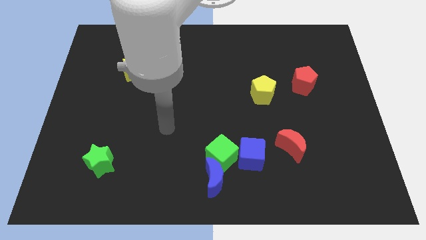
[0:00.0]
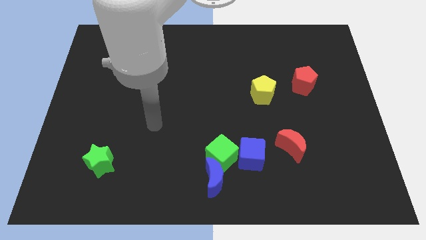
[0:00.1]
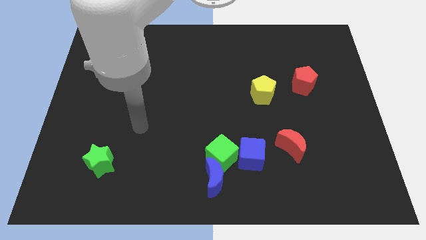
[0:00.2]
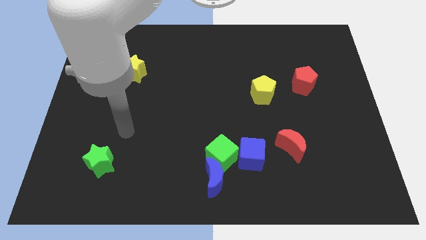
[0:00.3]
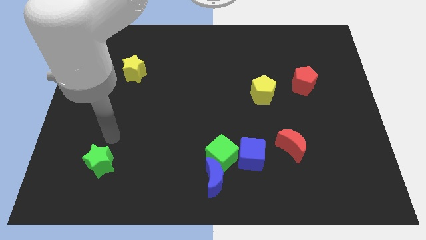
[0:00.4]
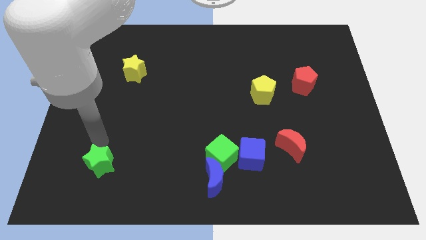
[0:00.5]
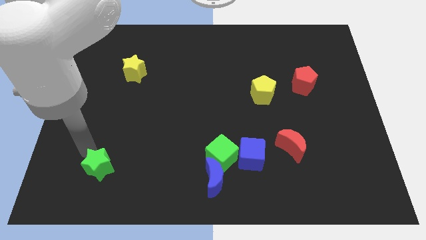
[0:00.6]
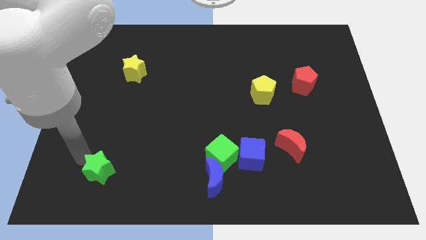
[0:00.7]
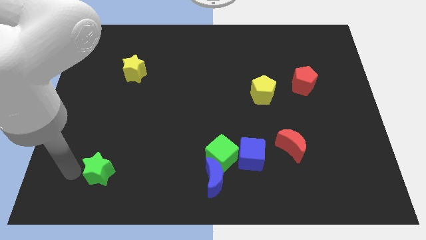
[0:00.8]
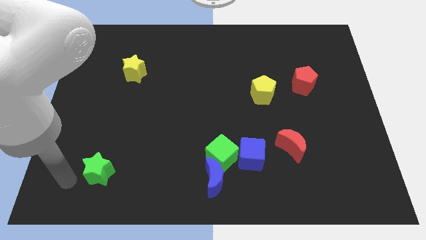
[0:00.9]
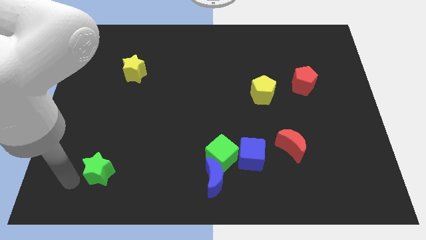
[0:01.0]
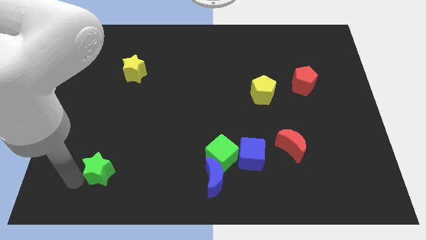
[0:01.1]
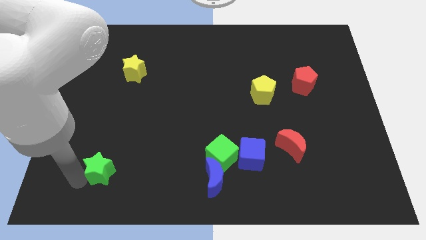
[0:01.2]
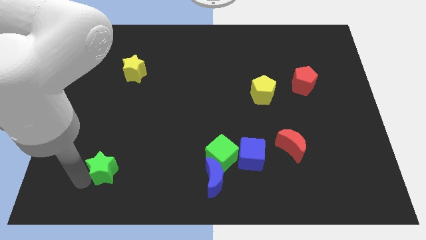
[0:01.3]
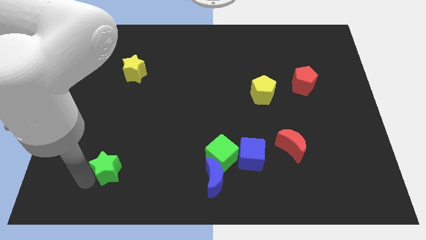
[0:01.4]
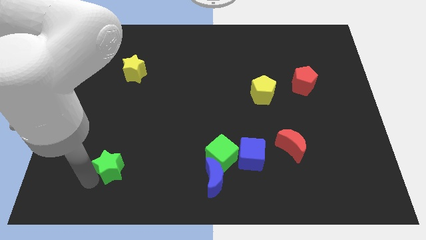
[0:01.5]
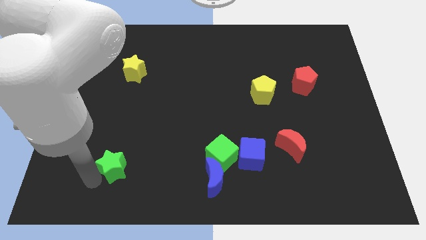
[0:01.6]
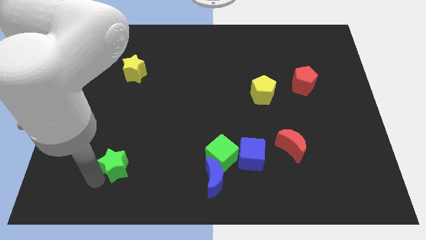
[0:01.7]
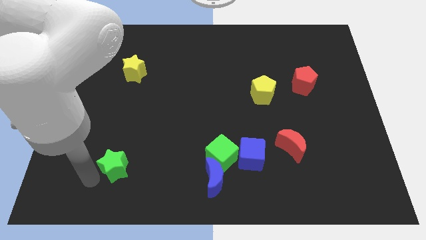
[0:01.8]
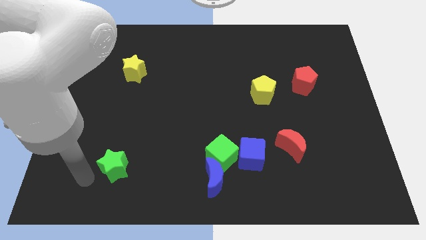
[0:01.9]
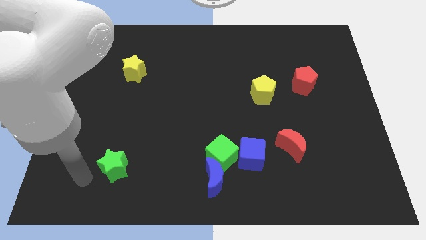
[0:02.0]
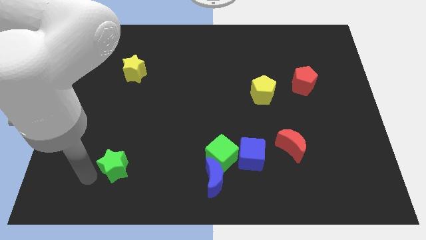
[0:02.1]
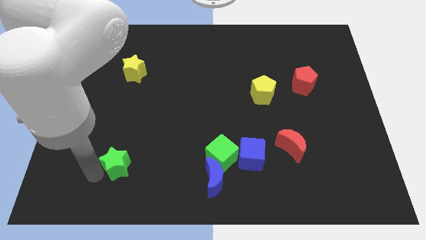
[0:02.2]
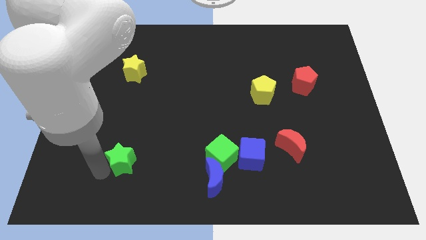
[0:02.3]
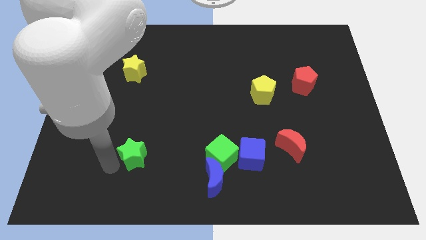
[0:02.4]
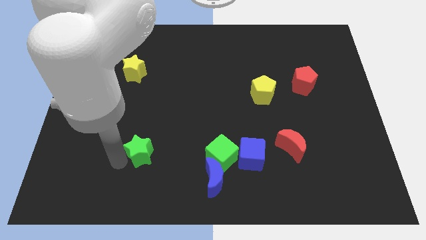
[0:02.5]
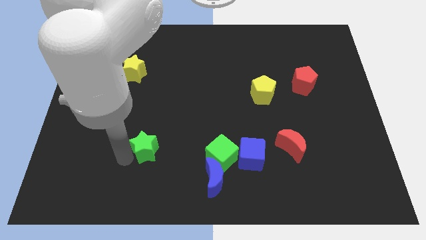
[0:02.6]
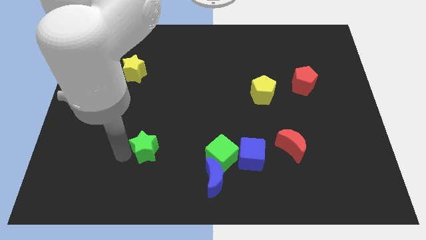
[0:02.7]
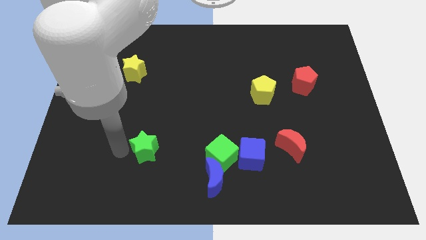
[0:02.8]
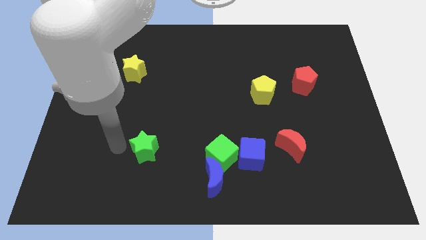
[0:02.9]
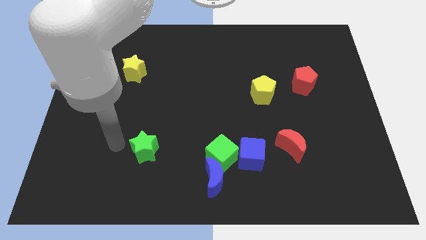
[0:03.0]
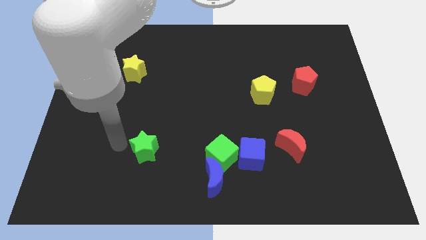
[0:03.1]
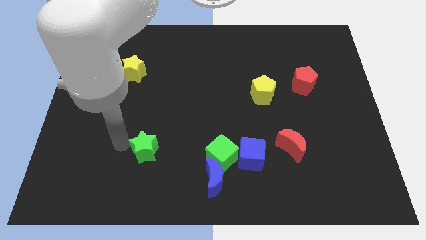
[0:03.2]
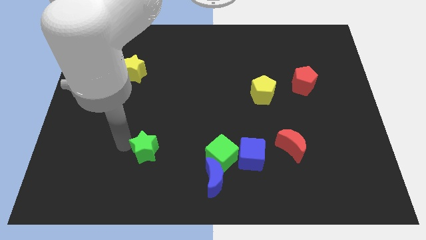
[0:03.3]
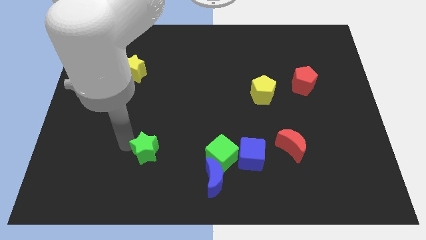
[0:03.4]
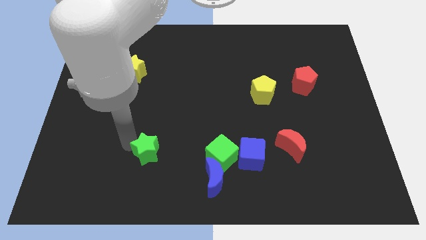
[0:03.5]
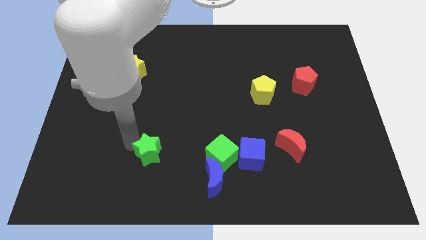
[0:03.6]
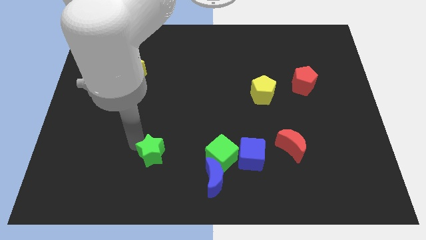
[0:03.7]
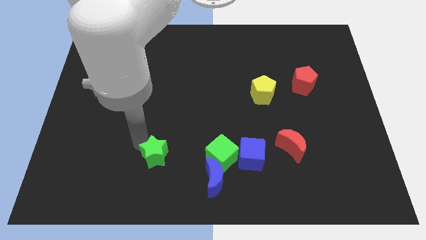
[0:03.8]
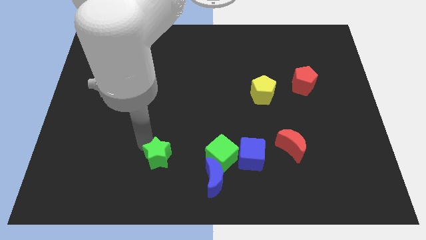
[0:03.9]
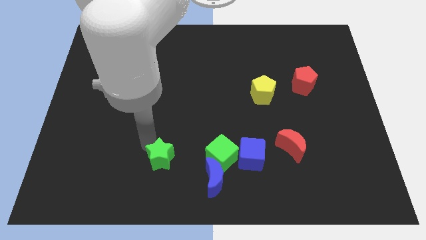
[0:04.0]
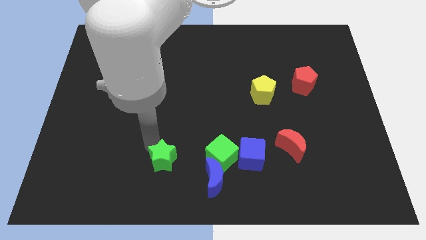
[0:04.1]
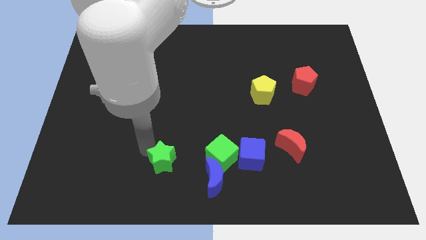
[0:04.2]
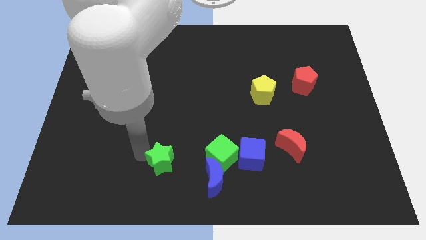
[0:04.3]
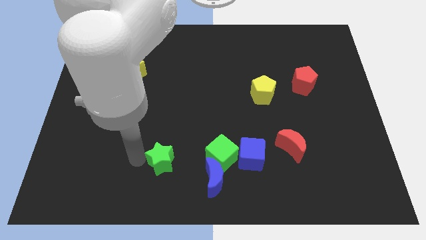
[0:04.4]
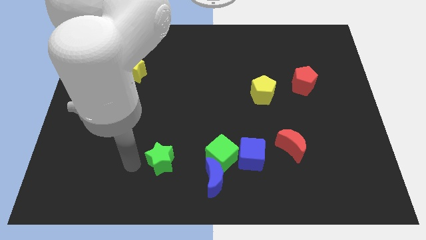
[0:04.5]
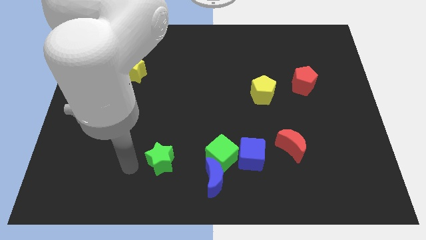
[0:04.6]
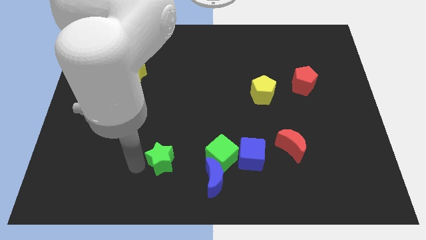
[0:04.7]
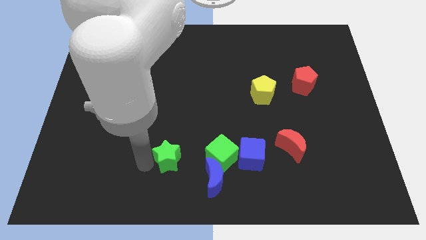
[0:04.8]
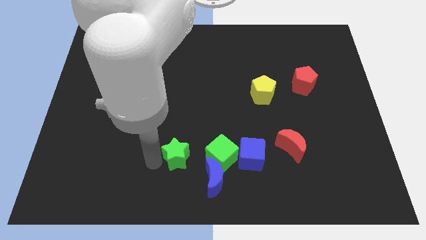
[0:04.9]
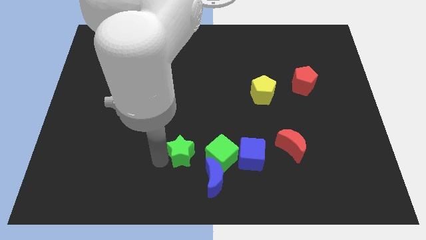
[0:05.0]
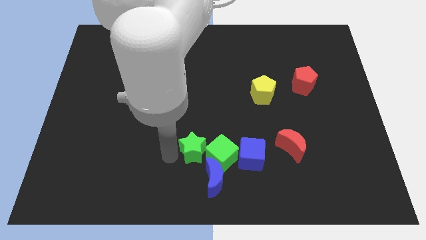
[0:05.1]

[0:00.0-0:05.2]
move the green star to the green cube

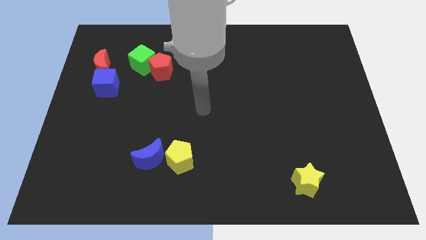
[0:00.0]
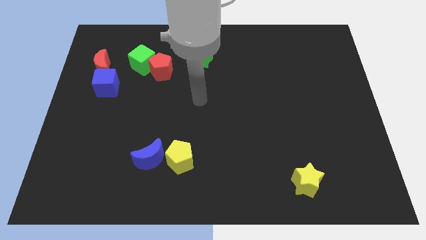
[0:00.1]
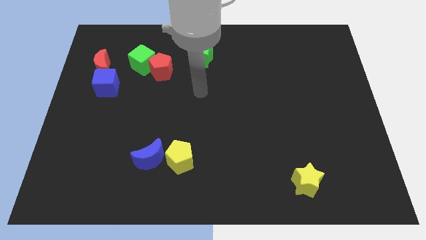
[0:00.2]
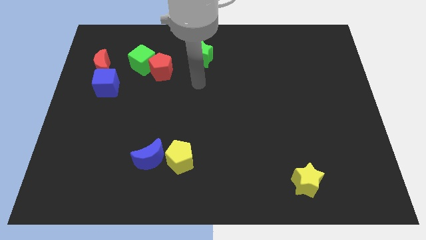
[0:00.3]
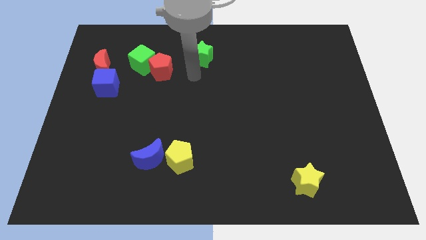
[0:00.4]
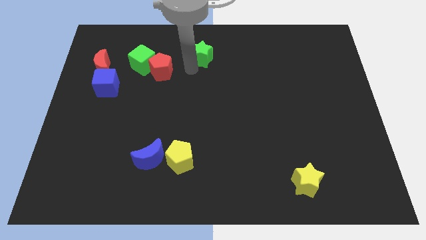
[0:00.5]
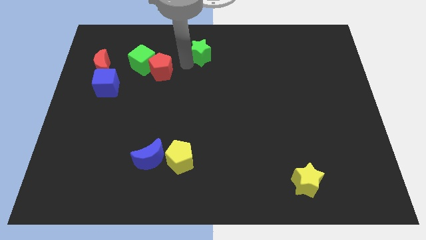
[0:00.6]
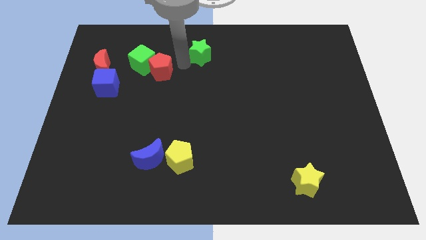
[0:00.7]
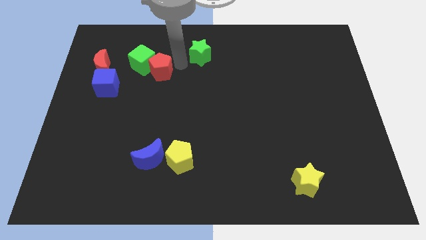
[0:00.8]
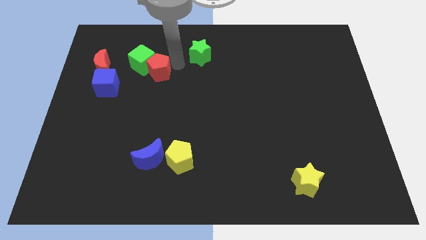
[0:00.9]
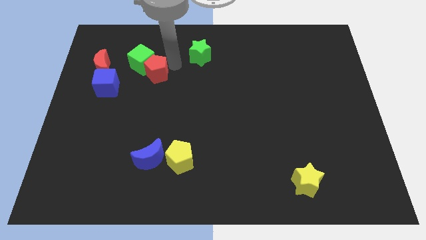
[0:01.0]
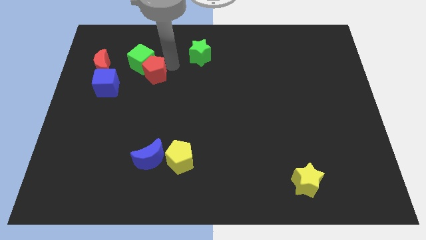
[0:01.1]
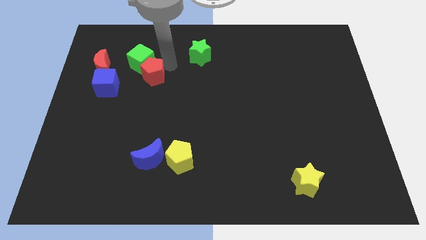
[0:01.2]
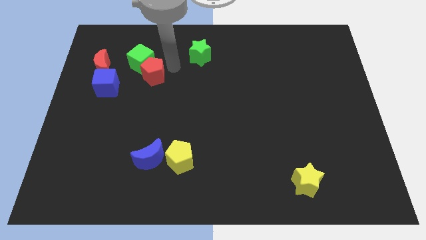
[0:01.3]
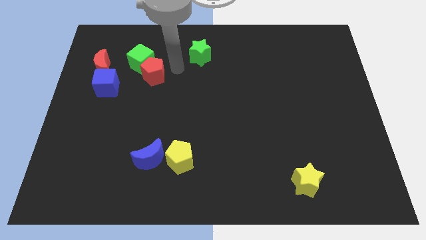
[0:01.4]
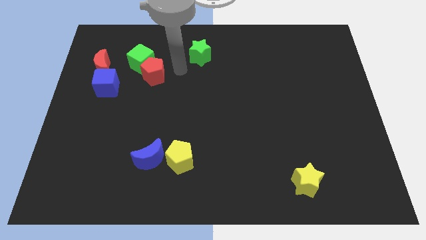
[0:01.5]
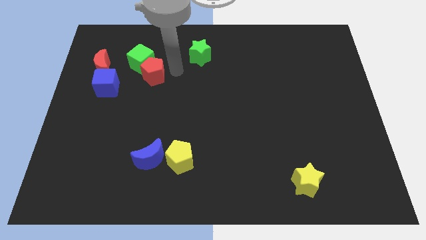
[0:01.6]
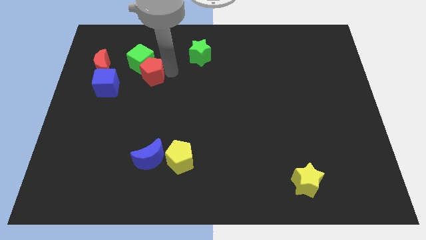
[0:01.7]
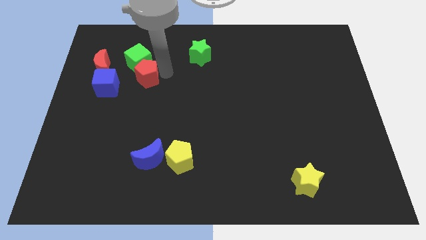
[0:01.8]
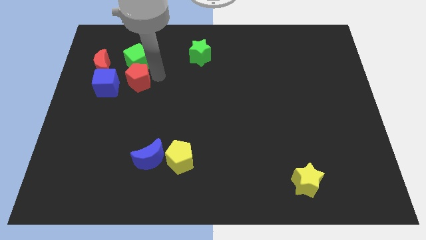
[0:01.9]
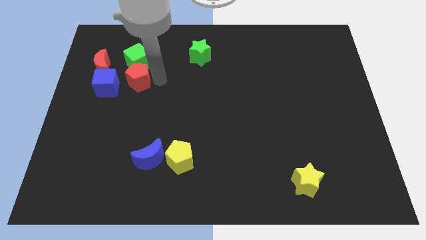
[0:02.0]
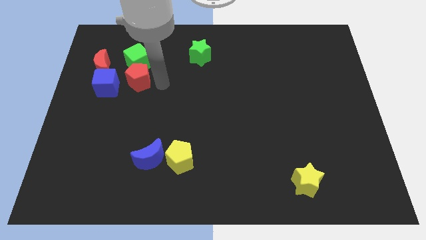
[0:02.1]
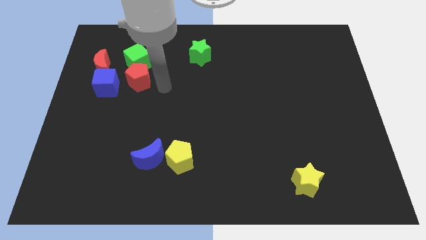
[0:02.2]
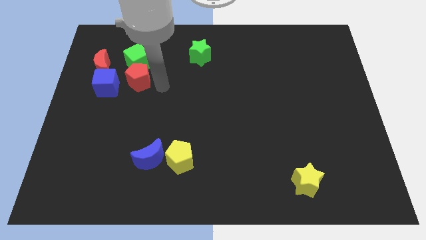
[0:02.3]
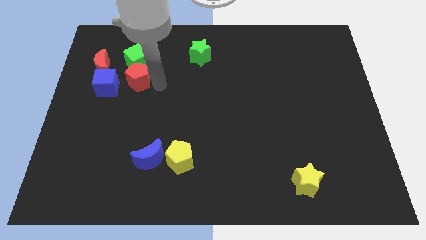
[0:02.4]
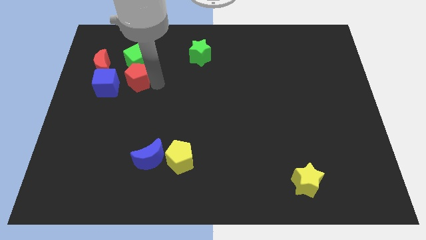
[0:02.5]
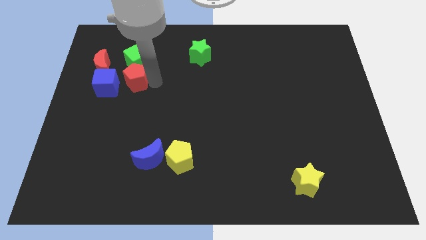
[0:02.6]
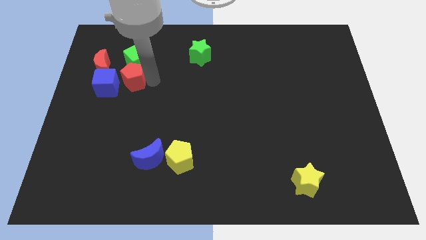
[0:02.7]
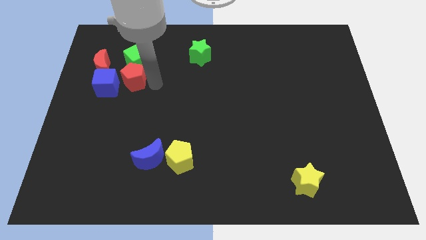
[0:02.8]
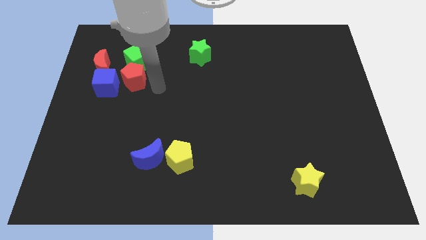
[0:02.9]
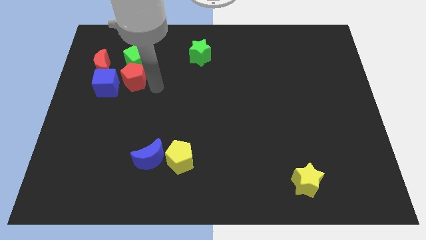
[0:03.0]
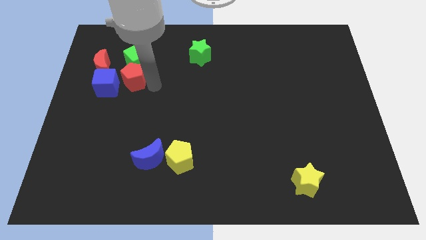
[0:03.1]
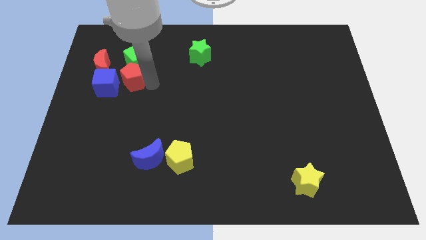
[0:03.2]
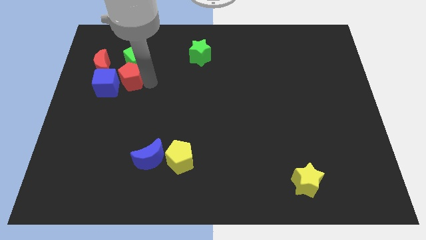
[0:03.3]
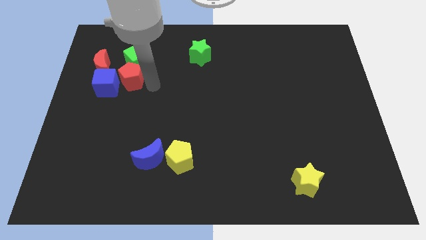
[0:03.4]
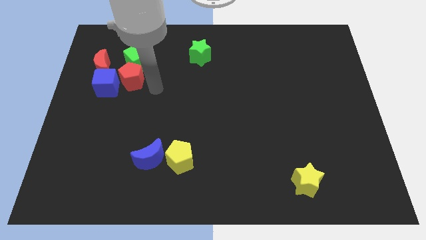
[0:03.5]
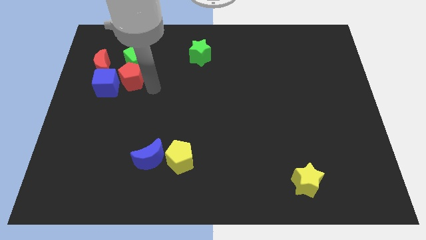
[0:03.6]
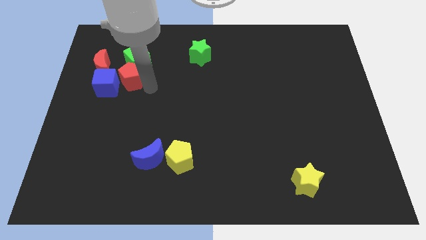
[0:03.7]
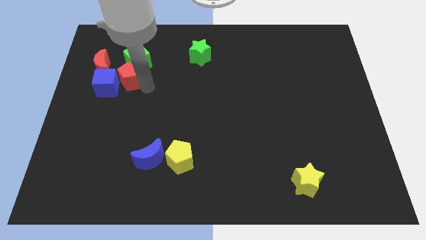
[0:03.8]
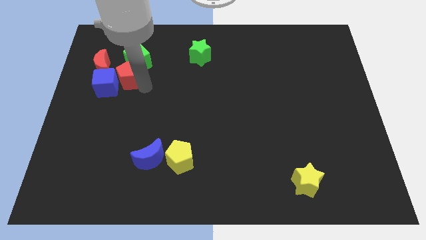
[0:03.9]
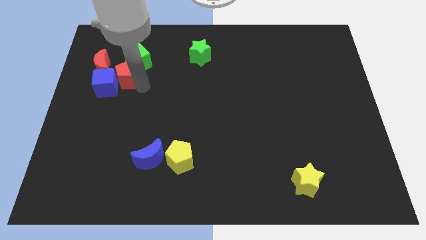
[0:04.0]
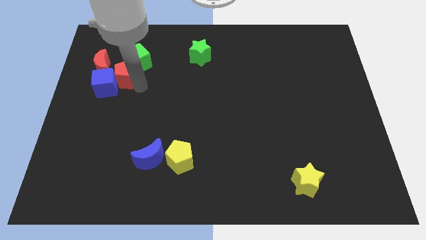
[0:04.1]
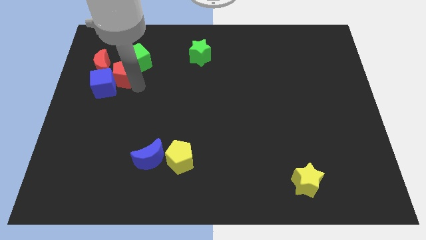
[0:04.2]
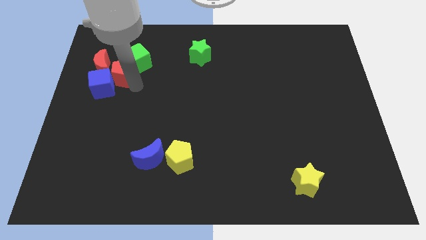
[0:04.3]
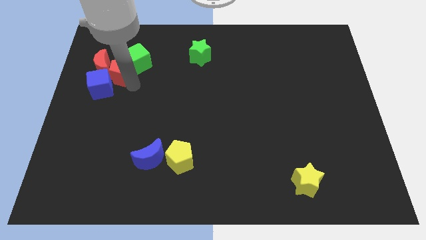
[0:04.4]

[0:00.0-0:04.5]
move the red pentagon close to the red moon
